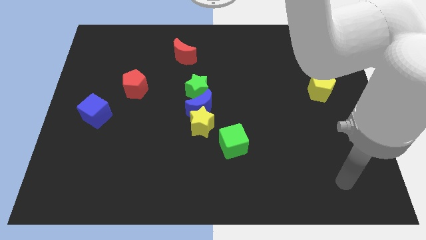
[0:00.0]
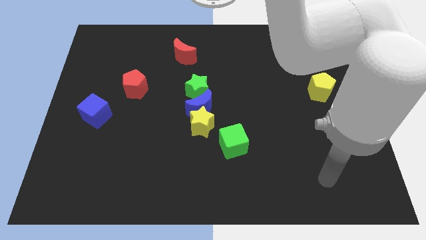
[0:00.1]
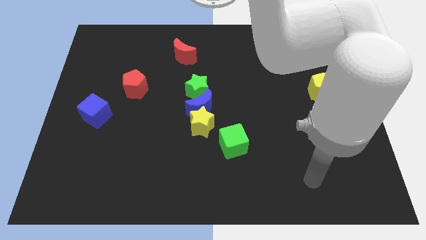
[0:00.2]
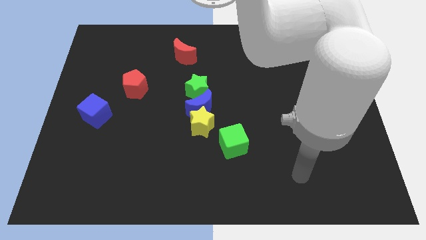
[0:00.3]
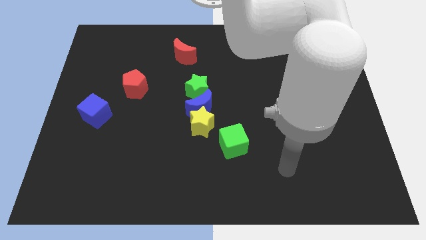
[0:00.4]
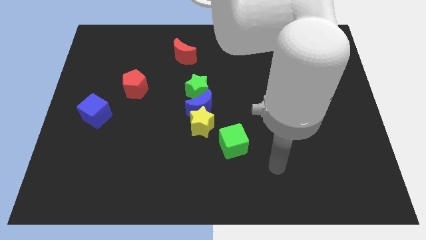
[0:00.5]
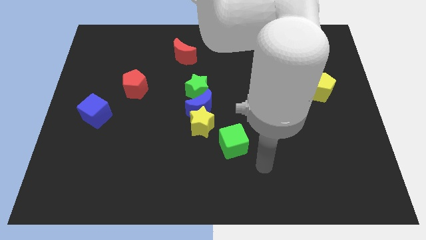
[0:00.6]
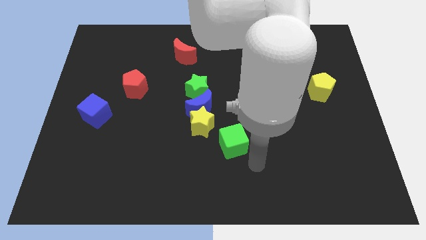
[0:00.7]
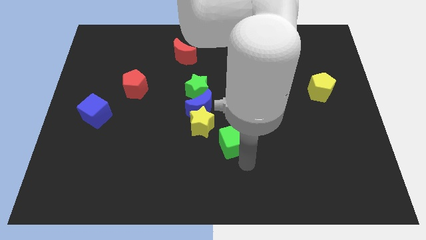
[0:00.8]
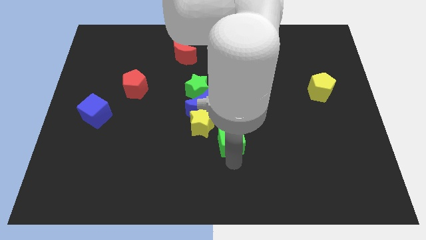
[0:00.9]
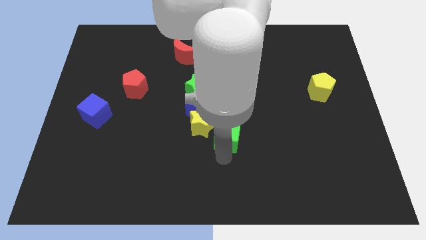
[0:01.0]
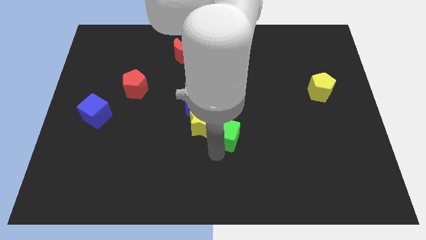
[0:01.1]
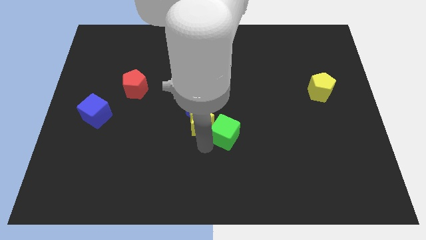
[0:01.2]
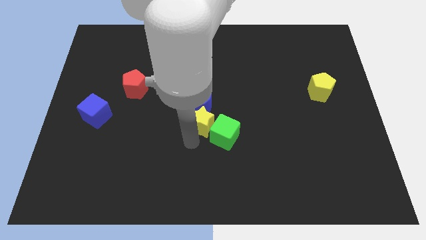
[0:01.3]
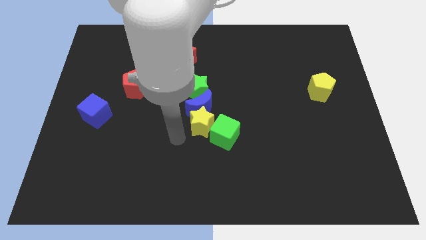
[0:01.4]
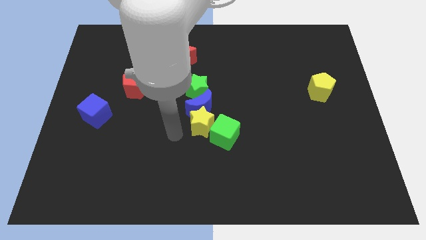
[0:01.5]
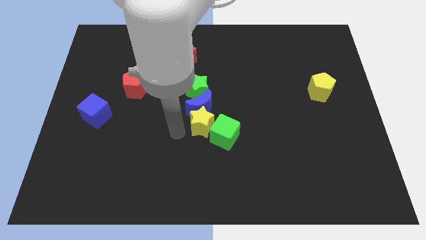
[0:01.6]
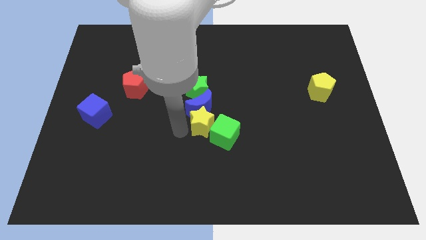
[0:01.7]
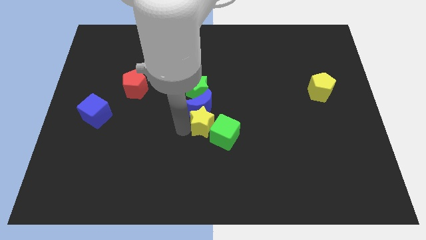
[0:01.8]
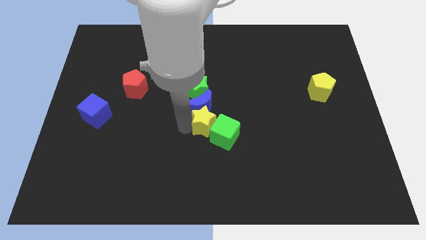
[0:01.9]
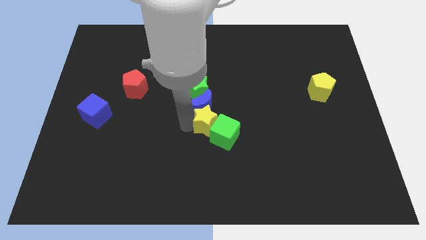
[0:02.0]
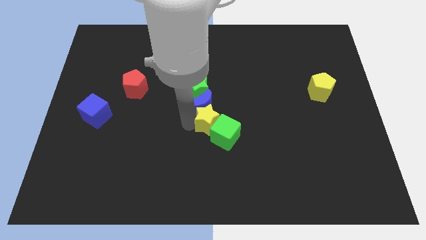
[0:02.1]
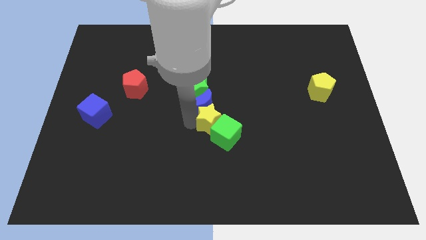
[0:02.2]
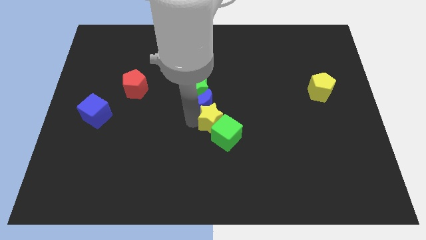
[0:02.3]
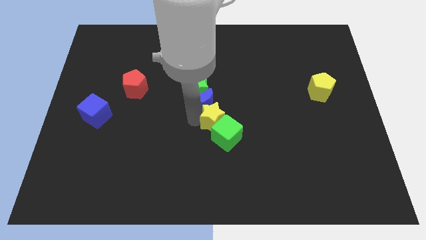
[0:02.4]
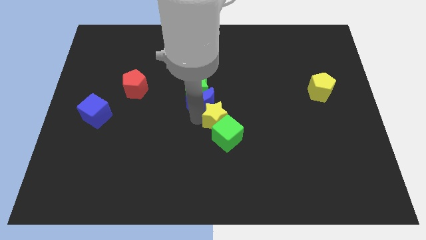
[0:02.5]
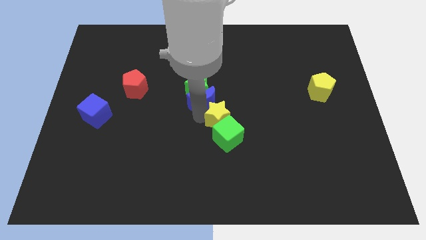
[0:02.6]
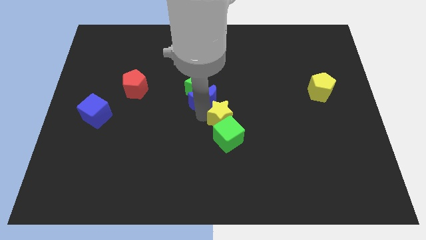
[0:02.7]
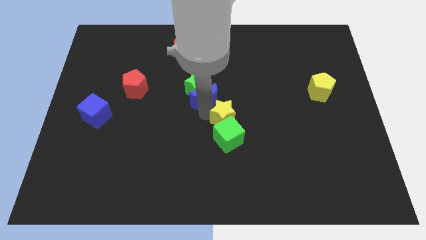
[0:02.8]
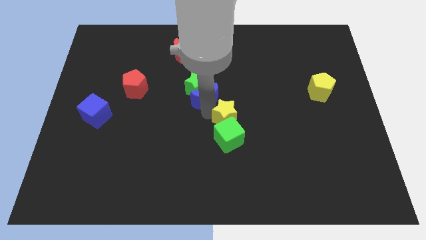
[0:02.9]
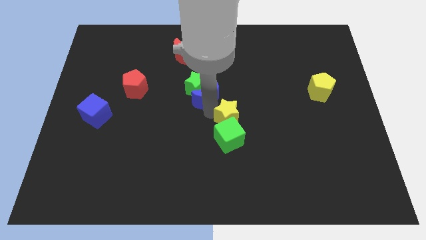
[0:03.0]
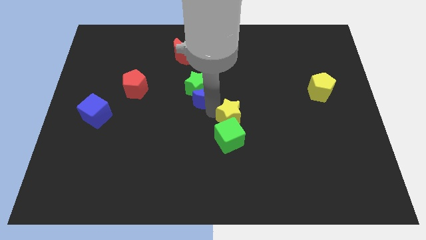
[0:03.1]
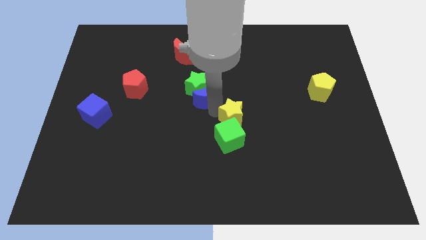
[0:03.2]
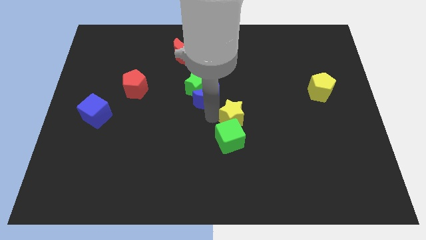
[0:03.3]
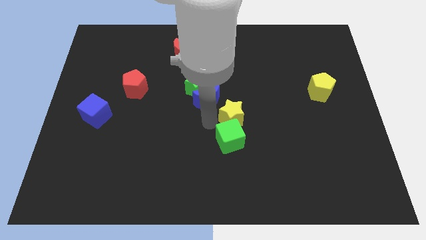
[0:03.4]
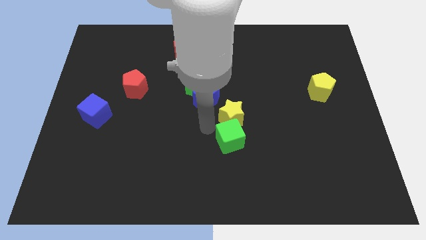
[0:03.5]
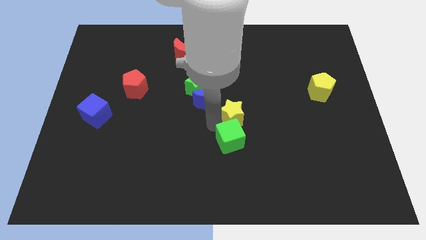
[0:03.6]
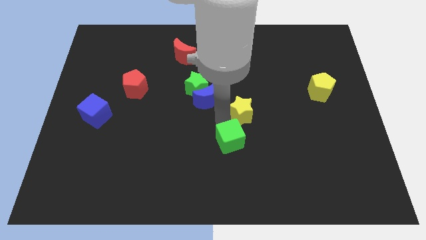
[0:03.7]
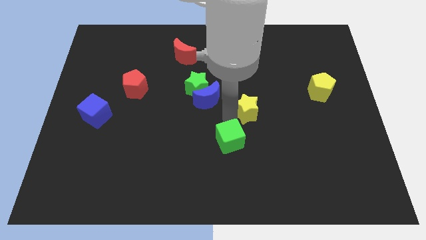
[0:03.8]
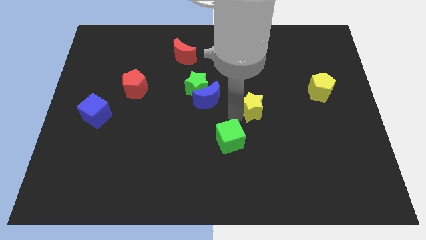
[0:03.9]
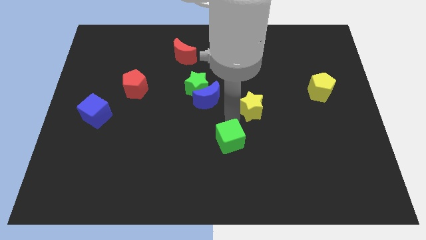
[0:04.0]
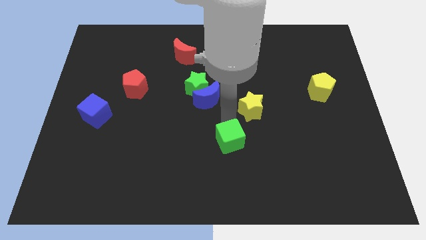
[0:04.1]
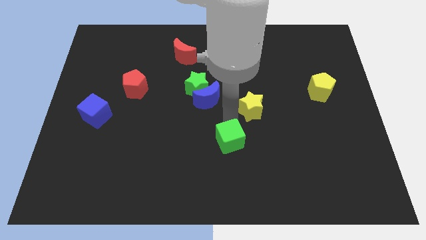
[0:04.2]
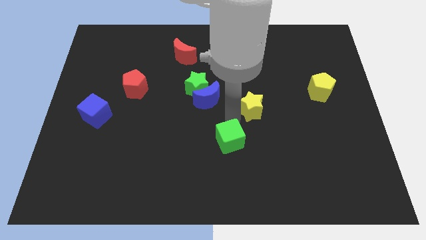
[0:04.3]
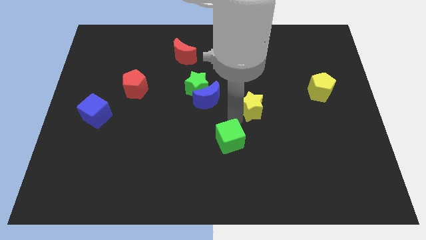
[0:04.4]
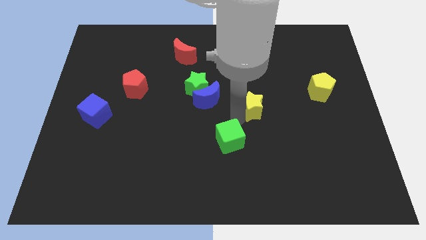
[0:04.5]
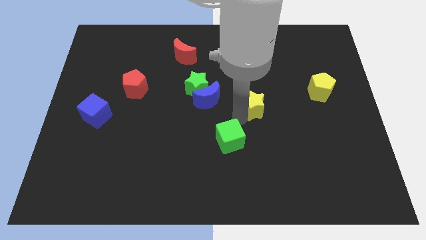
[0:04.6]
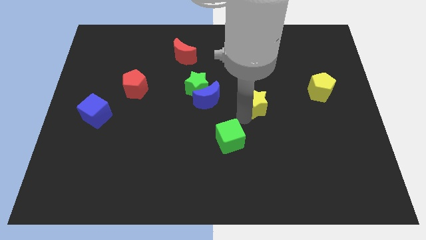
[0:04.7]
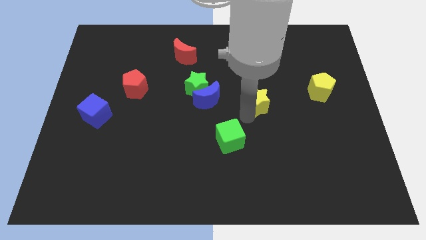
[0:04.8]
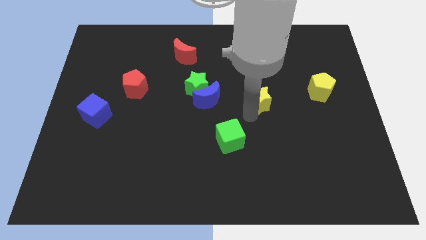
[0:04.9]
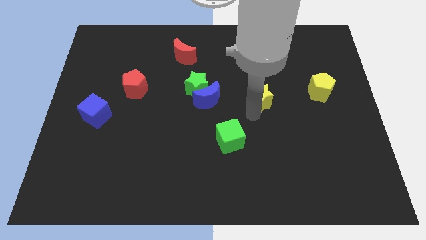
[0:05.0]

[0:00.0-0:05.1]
put the yellow star just left of the yellow pentagon

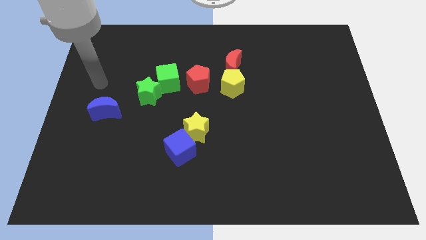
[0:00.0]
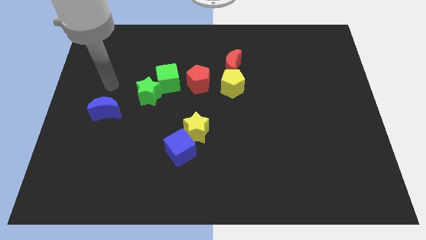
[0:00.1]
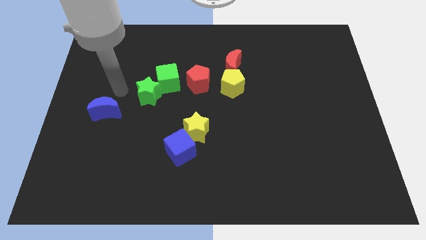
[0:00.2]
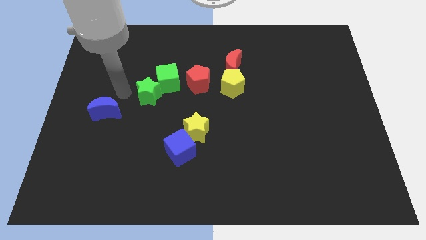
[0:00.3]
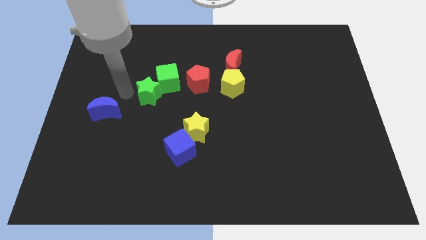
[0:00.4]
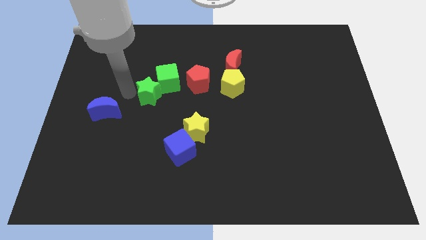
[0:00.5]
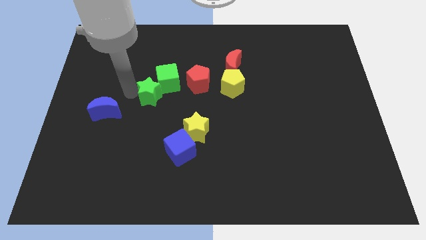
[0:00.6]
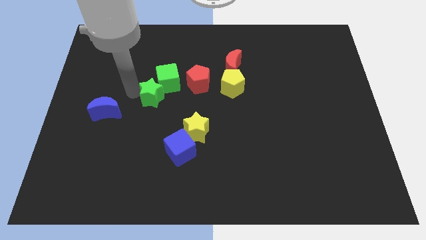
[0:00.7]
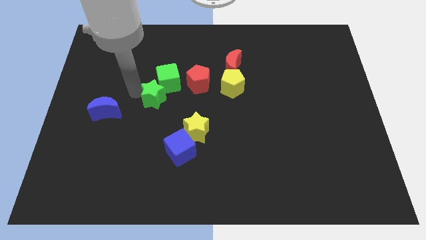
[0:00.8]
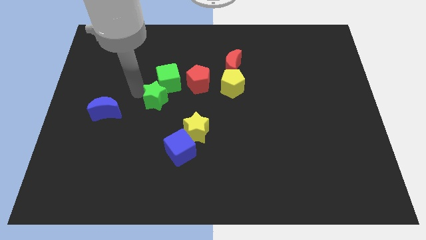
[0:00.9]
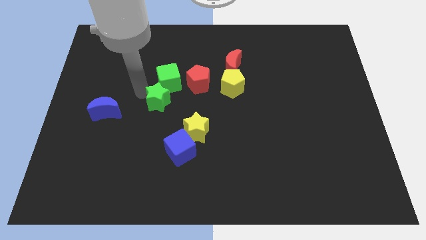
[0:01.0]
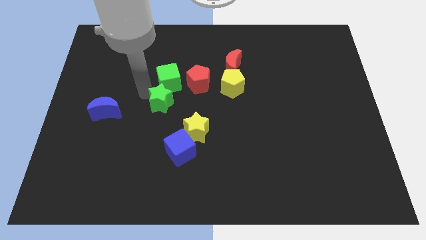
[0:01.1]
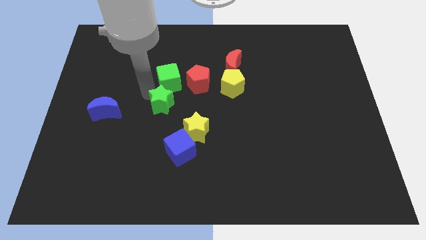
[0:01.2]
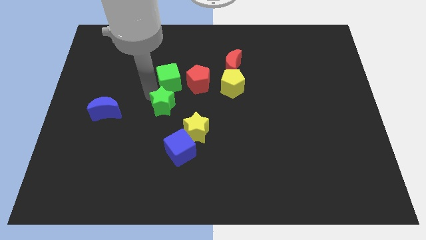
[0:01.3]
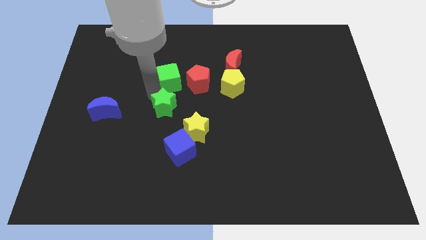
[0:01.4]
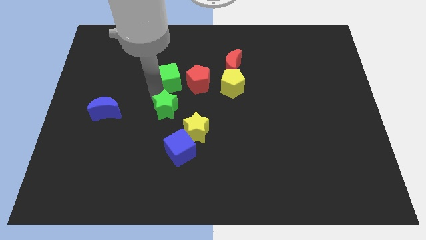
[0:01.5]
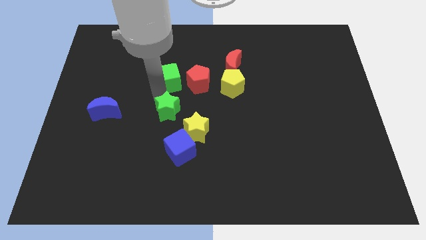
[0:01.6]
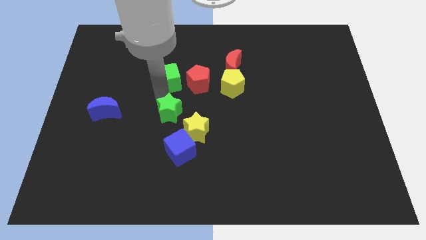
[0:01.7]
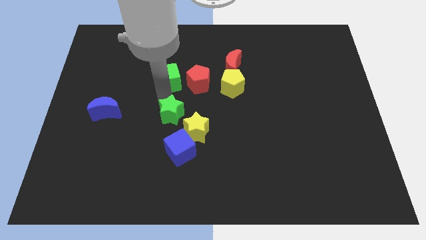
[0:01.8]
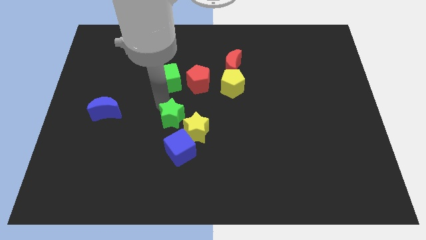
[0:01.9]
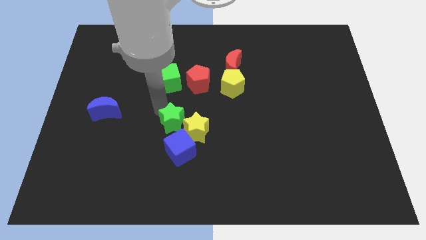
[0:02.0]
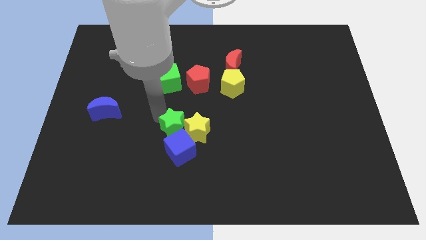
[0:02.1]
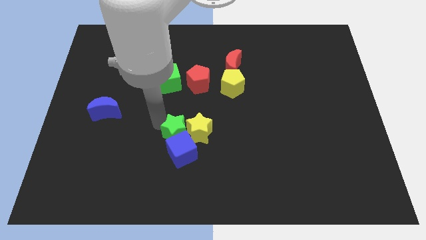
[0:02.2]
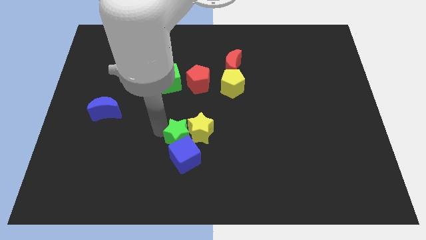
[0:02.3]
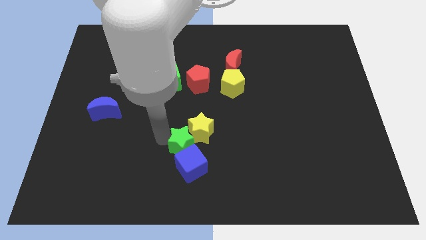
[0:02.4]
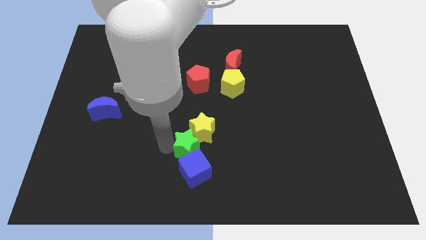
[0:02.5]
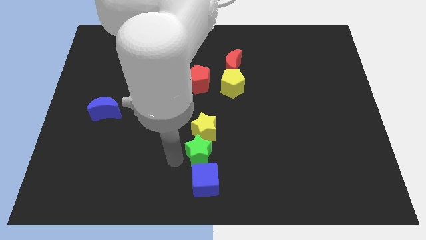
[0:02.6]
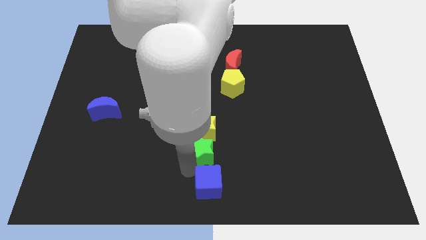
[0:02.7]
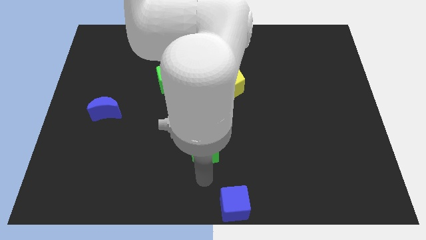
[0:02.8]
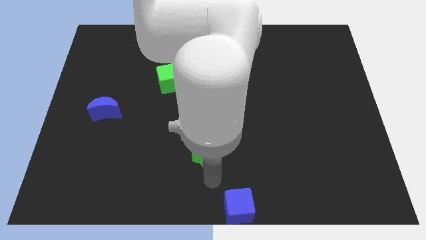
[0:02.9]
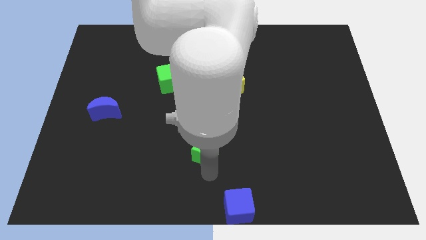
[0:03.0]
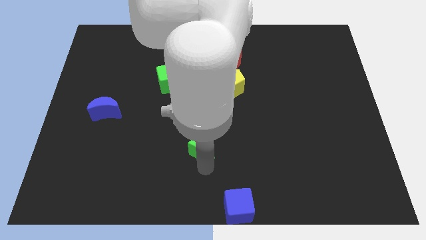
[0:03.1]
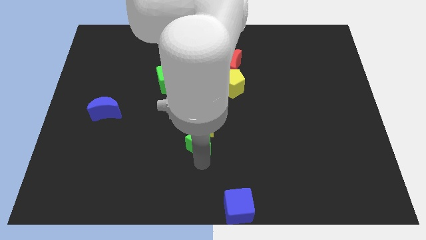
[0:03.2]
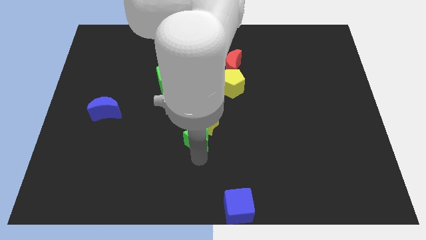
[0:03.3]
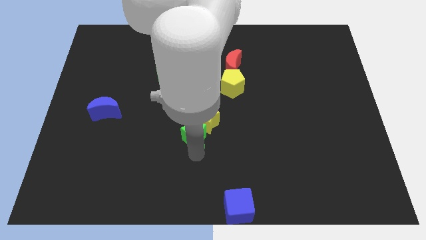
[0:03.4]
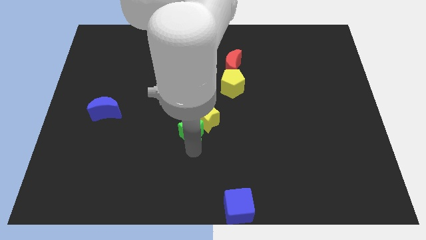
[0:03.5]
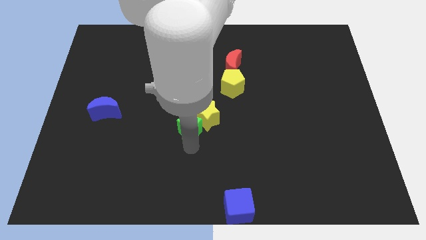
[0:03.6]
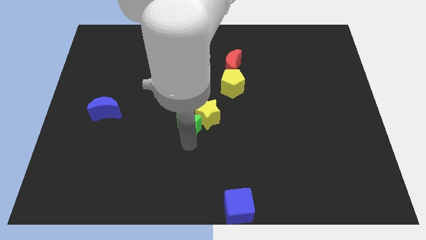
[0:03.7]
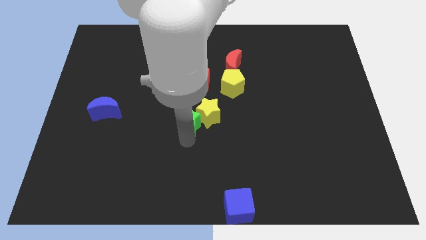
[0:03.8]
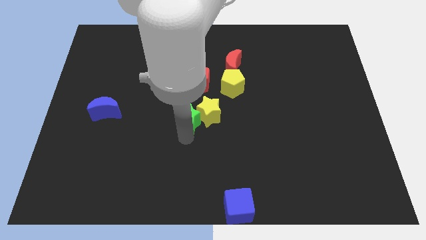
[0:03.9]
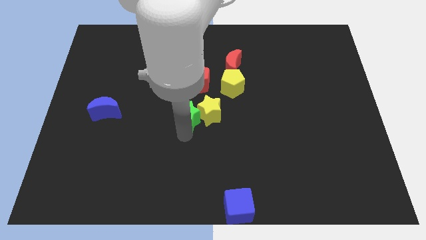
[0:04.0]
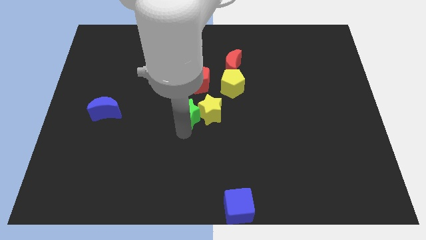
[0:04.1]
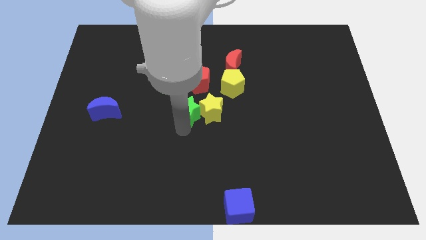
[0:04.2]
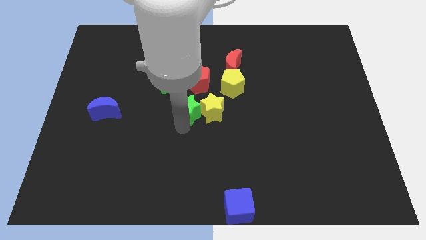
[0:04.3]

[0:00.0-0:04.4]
move the green star diagonally down and to the left of the yellow pentagon
